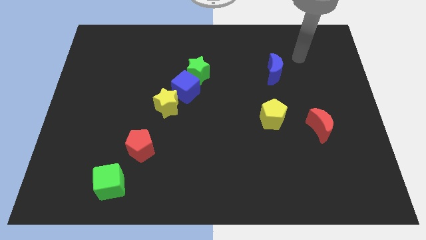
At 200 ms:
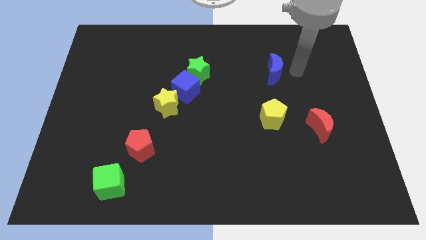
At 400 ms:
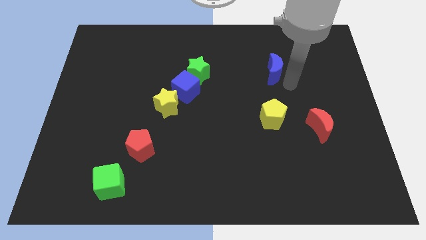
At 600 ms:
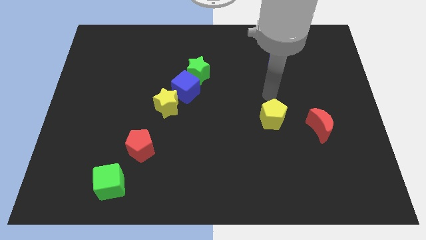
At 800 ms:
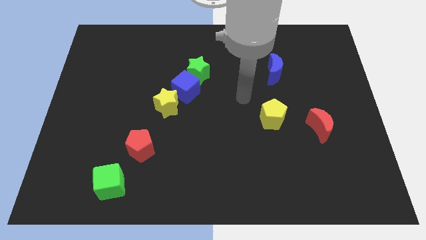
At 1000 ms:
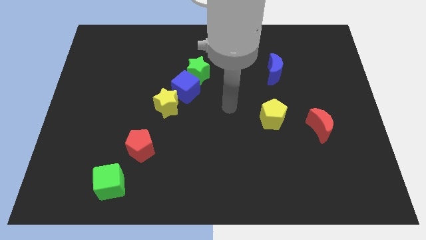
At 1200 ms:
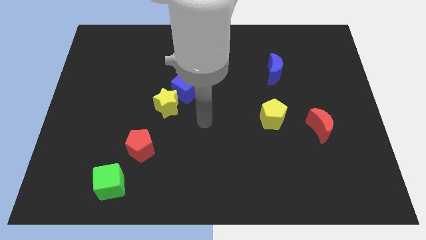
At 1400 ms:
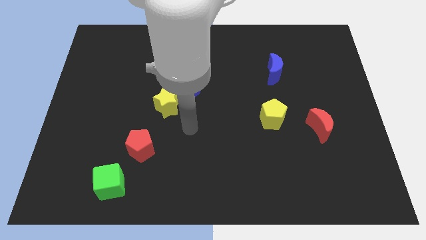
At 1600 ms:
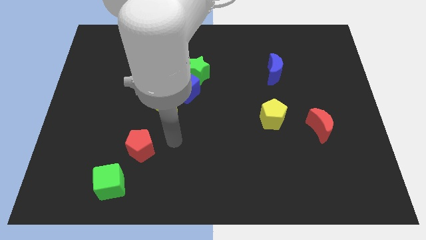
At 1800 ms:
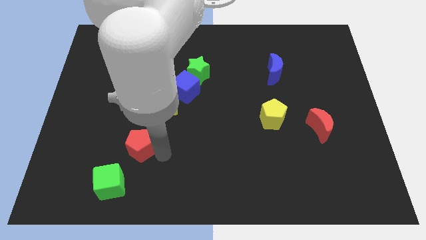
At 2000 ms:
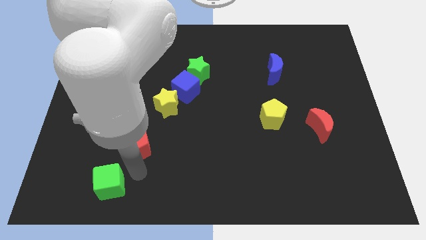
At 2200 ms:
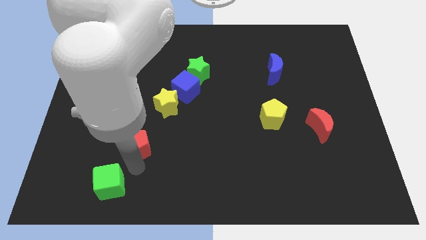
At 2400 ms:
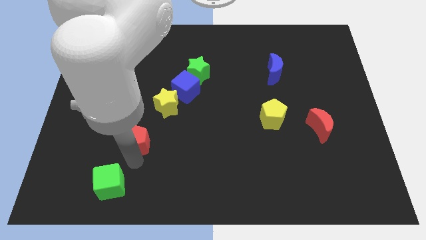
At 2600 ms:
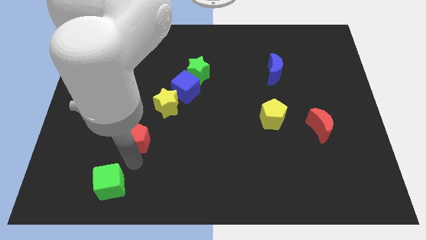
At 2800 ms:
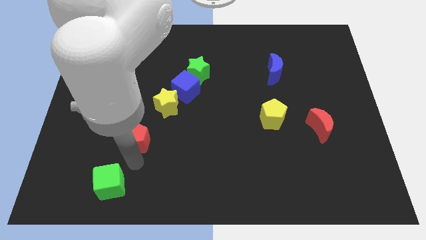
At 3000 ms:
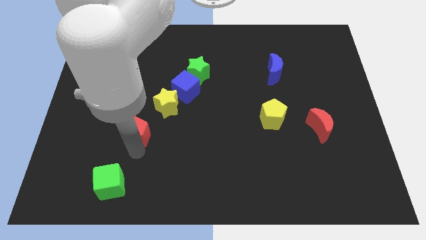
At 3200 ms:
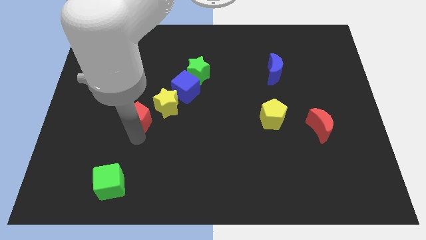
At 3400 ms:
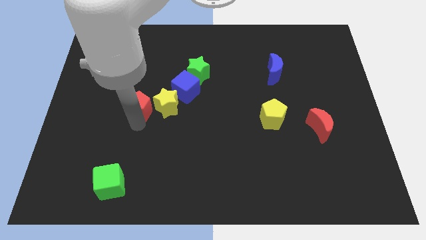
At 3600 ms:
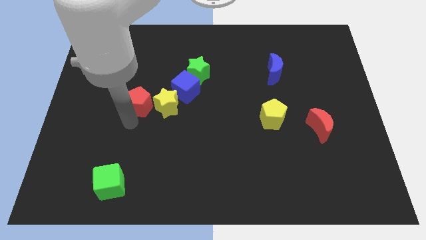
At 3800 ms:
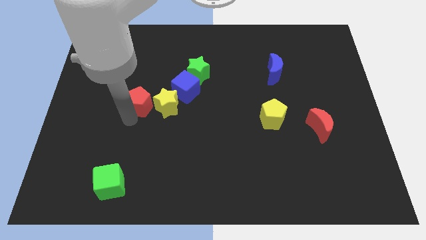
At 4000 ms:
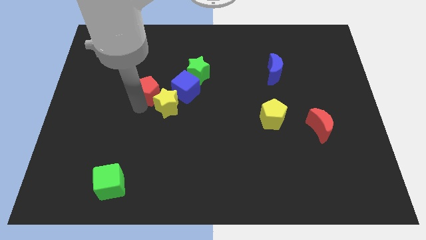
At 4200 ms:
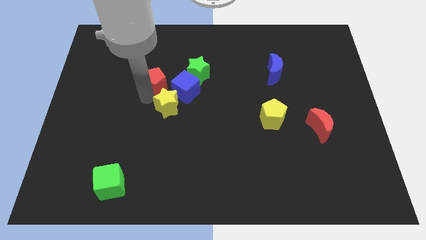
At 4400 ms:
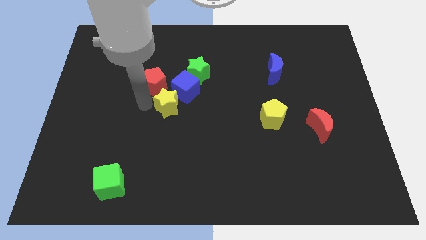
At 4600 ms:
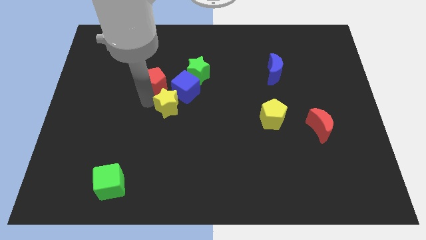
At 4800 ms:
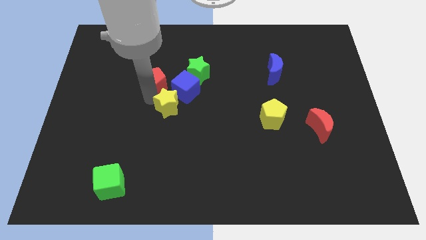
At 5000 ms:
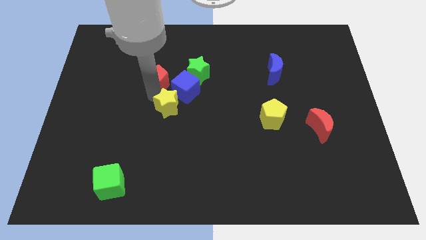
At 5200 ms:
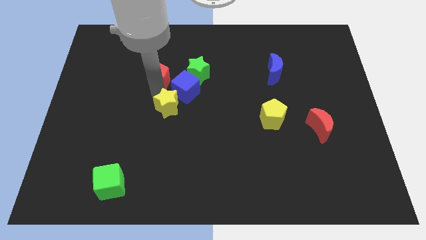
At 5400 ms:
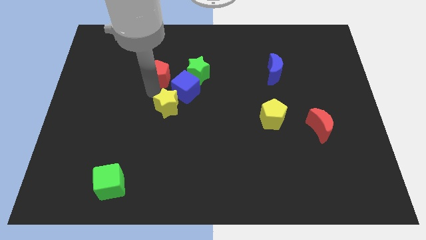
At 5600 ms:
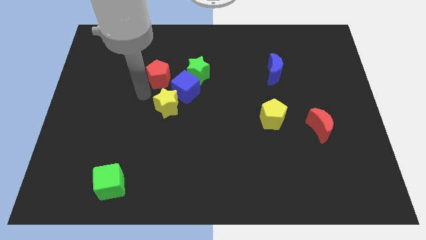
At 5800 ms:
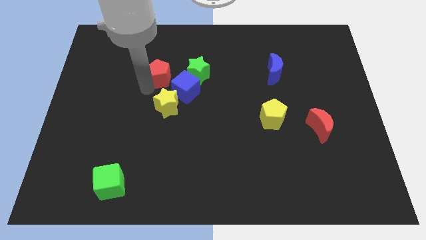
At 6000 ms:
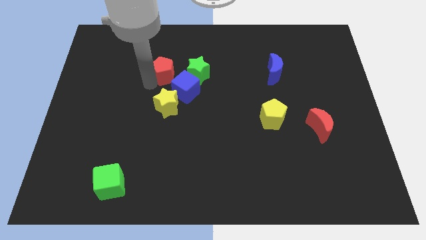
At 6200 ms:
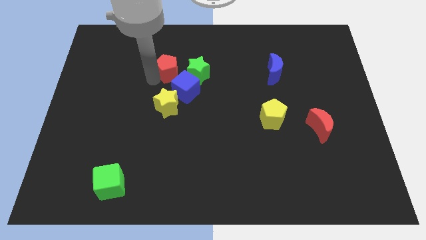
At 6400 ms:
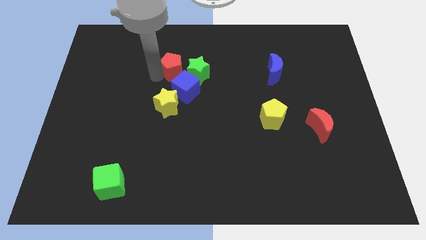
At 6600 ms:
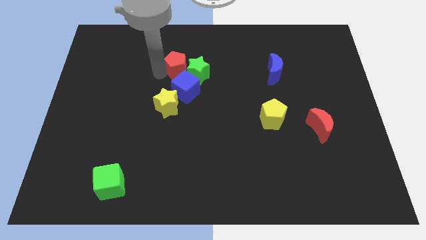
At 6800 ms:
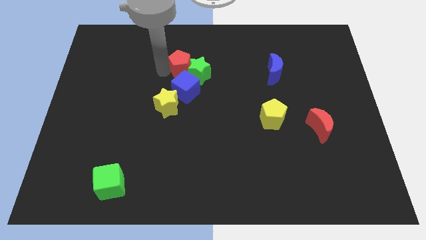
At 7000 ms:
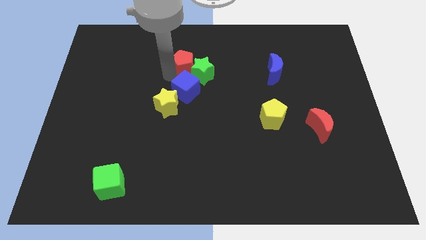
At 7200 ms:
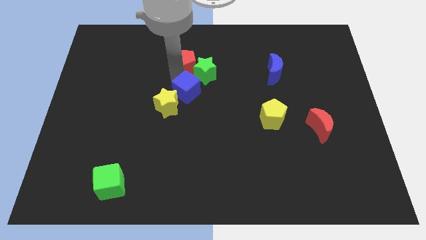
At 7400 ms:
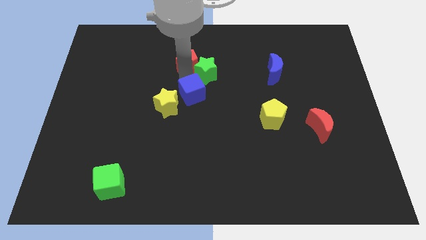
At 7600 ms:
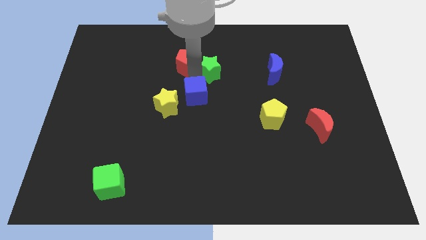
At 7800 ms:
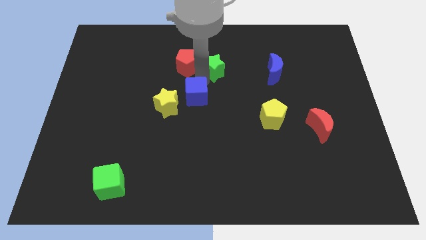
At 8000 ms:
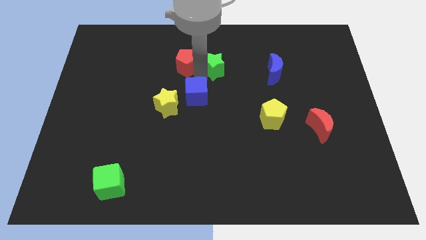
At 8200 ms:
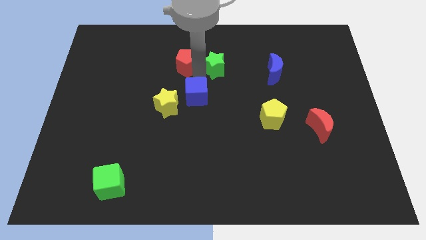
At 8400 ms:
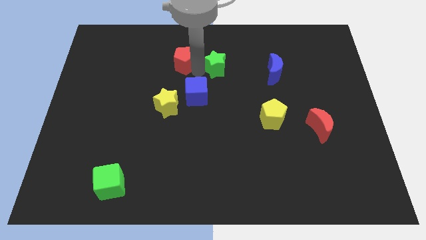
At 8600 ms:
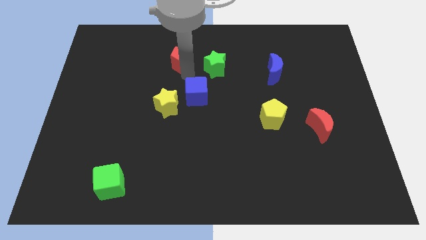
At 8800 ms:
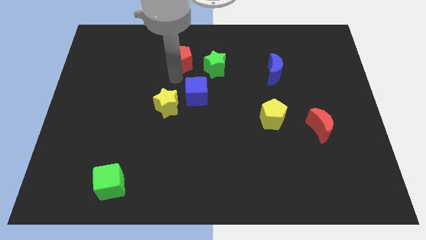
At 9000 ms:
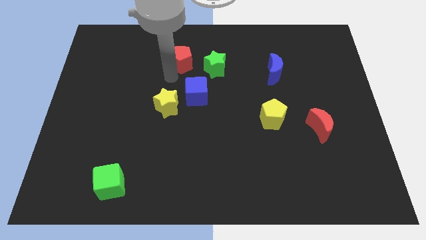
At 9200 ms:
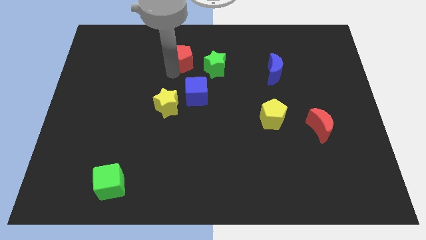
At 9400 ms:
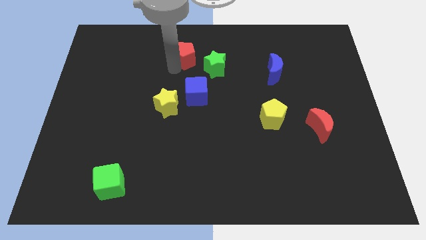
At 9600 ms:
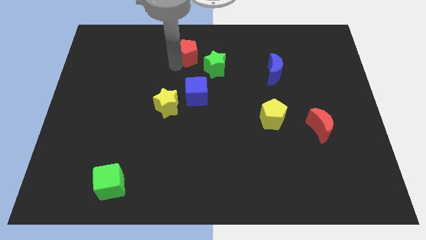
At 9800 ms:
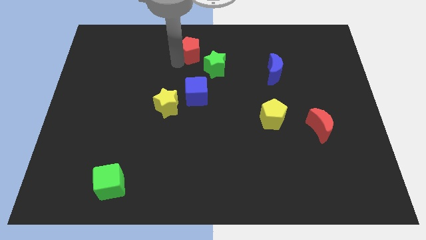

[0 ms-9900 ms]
move the red pentagon to the top

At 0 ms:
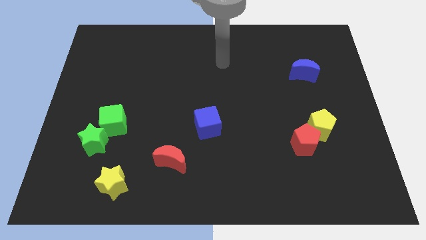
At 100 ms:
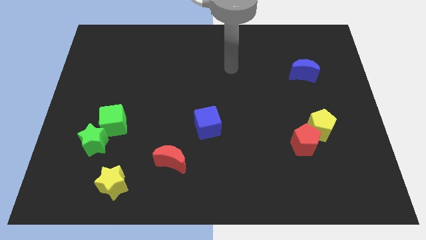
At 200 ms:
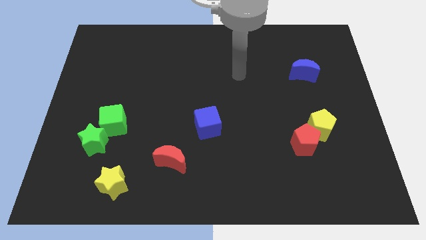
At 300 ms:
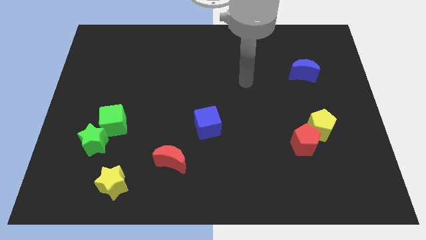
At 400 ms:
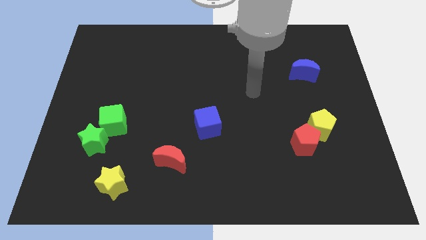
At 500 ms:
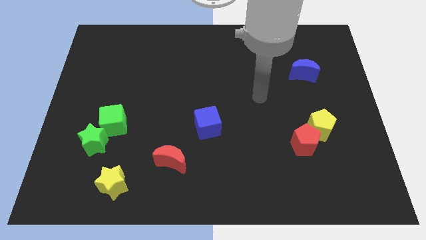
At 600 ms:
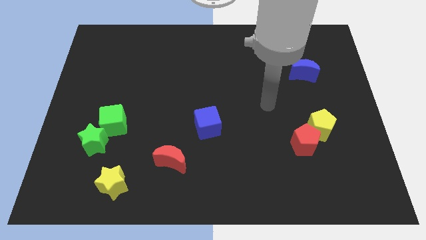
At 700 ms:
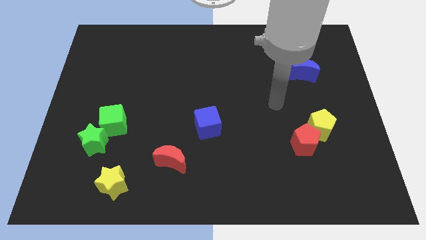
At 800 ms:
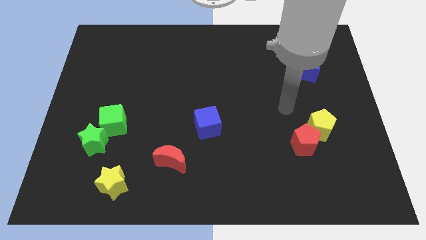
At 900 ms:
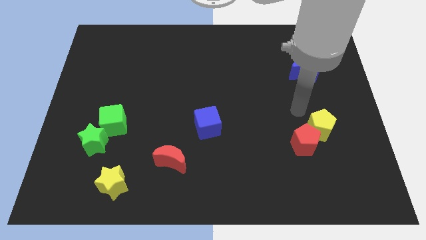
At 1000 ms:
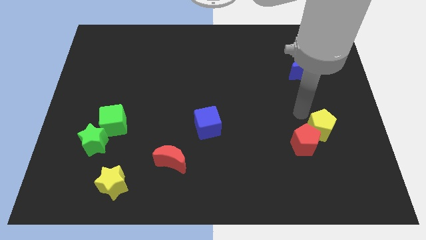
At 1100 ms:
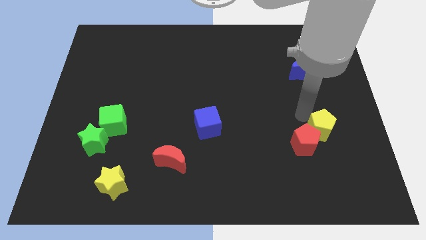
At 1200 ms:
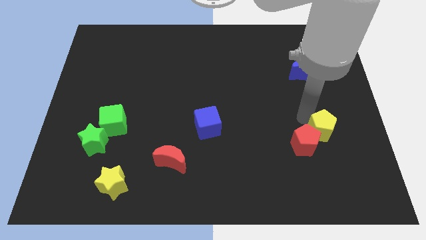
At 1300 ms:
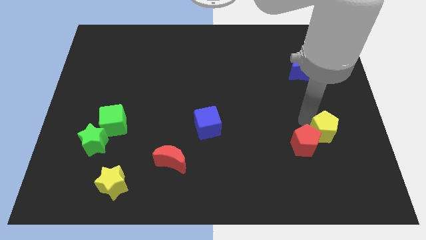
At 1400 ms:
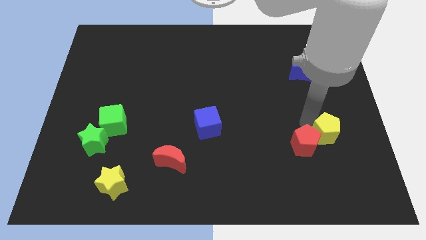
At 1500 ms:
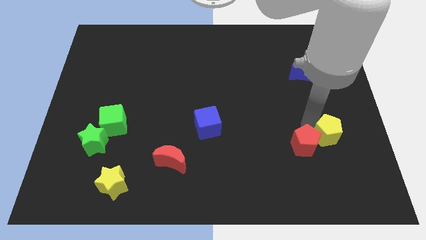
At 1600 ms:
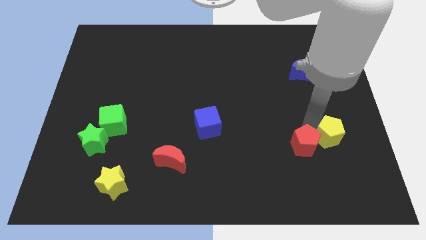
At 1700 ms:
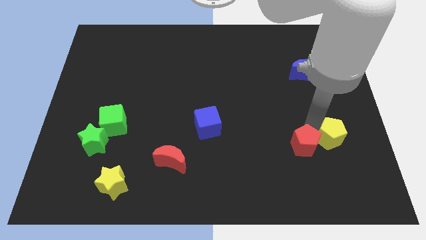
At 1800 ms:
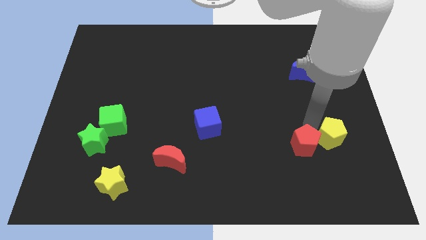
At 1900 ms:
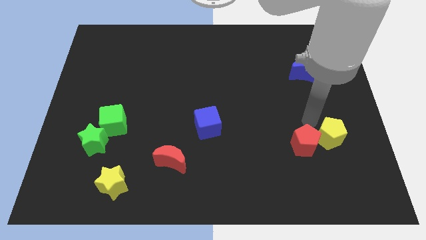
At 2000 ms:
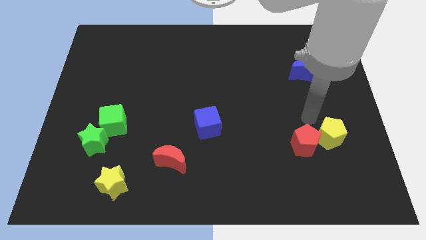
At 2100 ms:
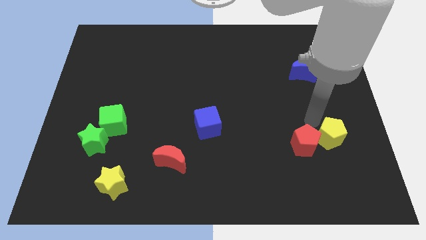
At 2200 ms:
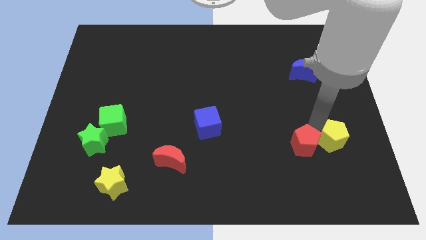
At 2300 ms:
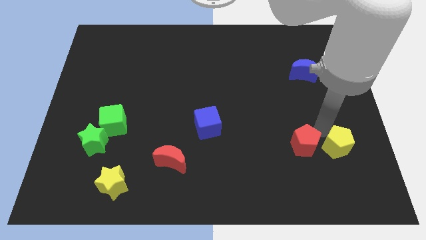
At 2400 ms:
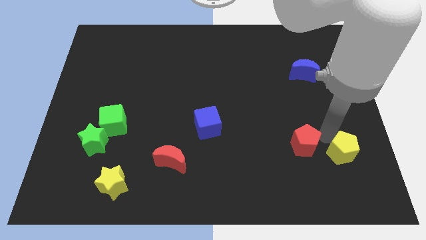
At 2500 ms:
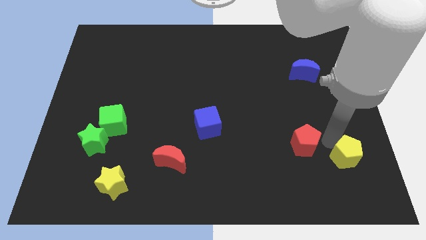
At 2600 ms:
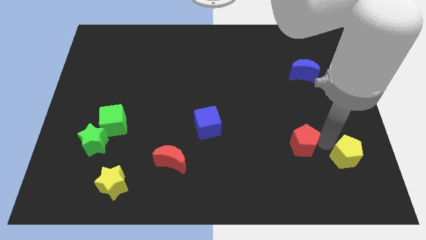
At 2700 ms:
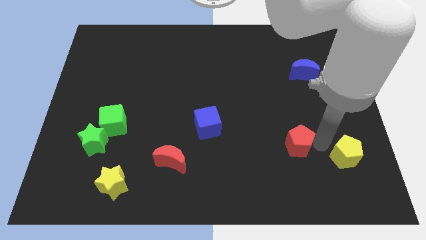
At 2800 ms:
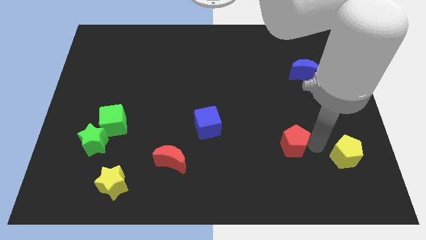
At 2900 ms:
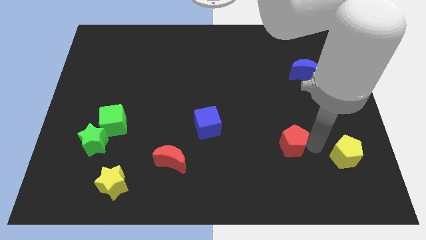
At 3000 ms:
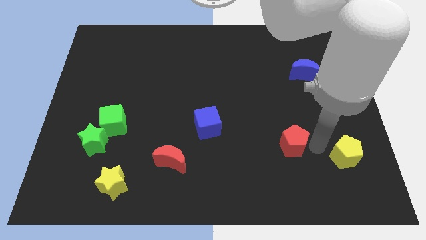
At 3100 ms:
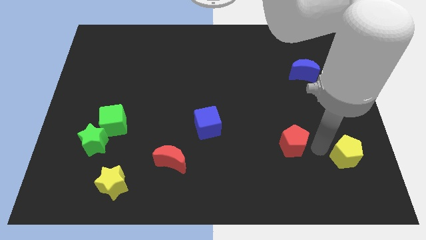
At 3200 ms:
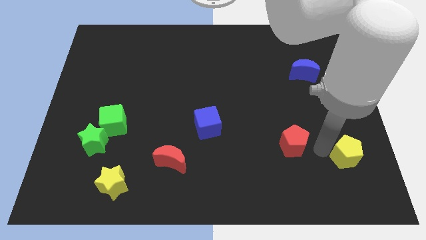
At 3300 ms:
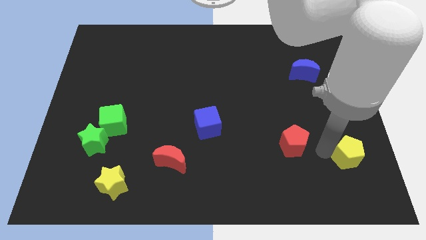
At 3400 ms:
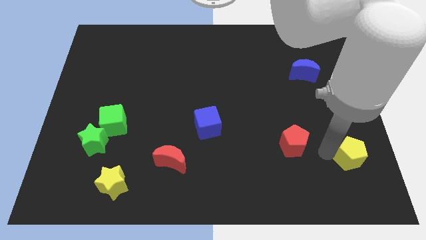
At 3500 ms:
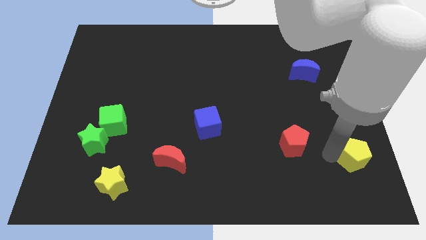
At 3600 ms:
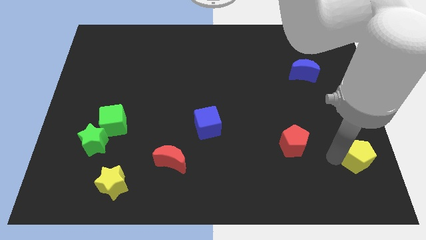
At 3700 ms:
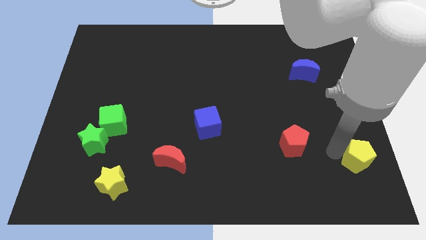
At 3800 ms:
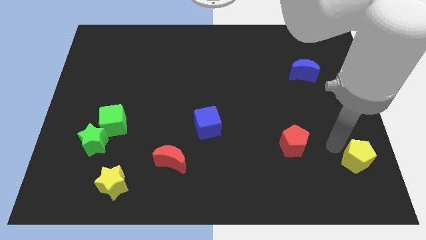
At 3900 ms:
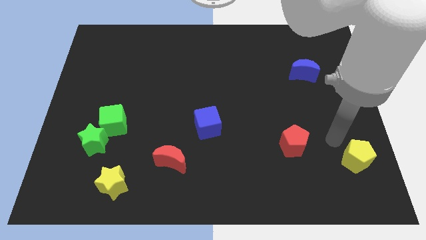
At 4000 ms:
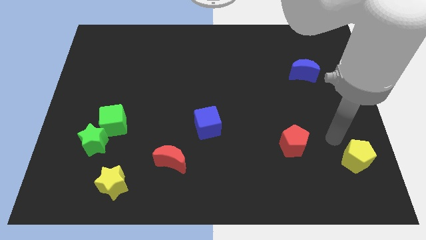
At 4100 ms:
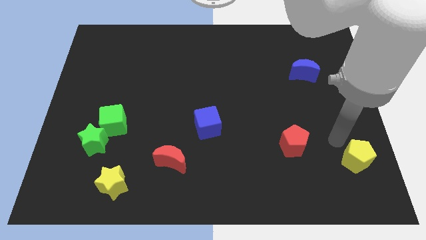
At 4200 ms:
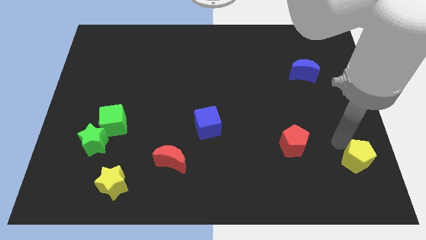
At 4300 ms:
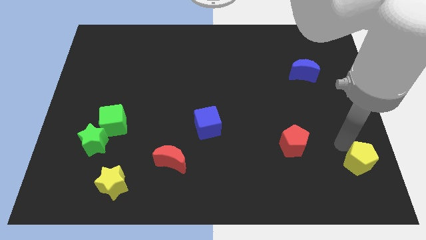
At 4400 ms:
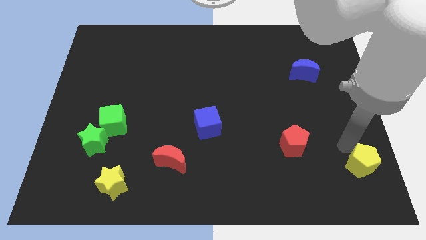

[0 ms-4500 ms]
slide the yellow pentagon to the bottom right
